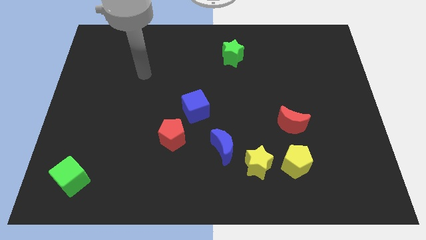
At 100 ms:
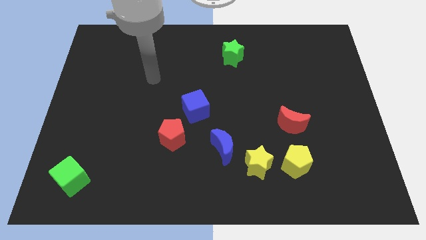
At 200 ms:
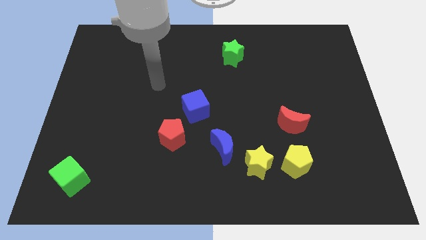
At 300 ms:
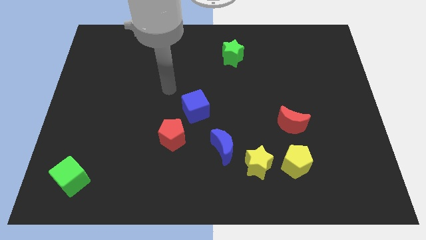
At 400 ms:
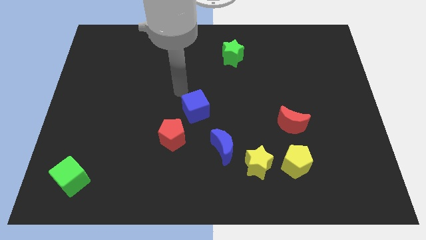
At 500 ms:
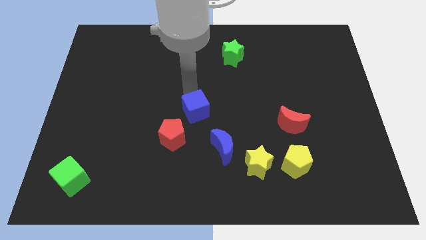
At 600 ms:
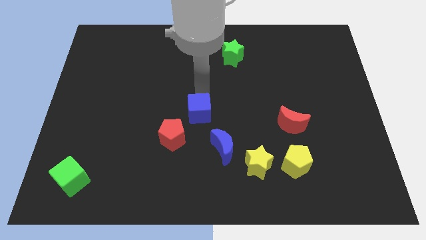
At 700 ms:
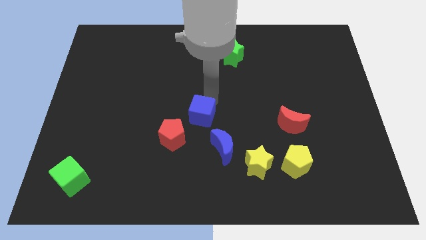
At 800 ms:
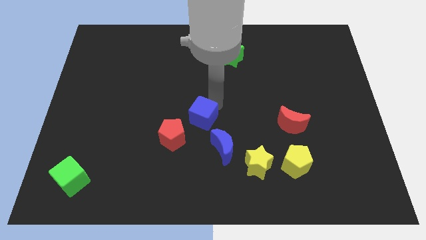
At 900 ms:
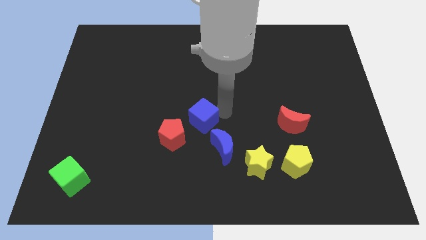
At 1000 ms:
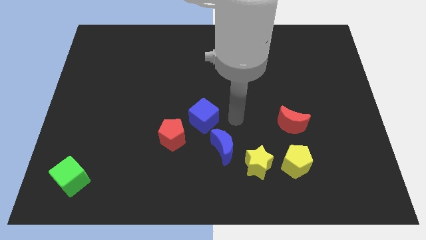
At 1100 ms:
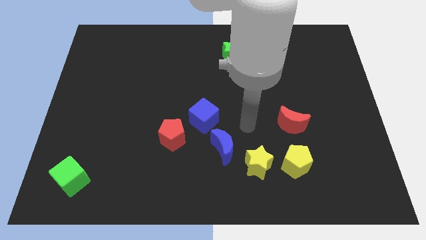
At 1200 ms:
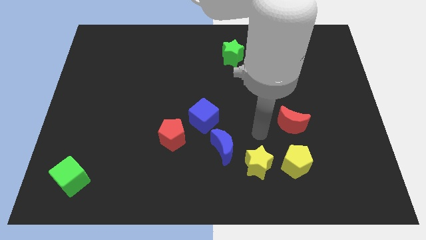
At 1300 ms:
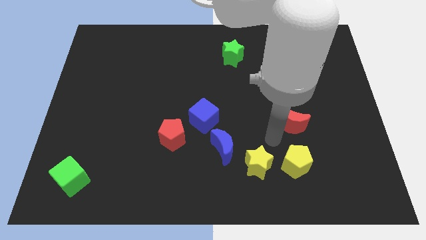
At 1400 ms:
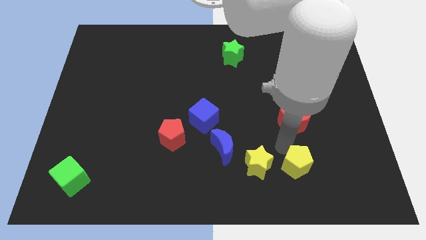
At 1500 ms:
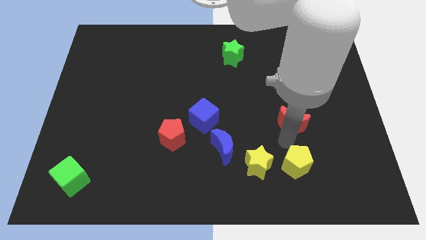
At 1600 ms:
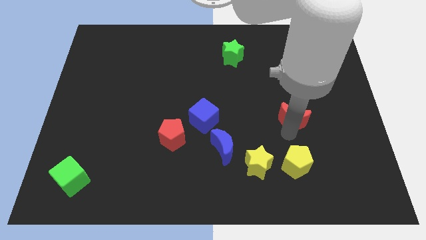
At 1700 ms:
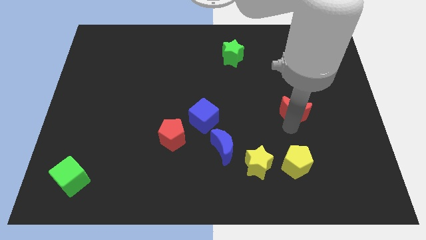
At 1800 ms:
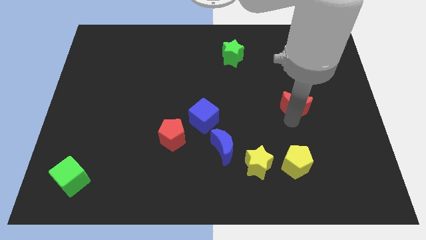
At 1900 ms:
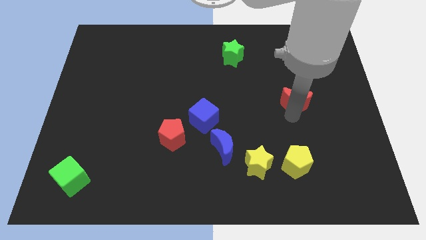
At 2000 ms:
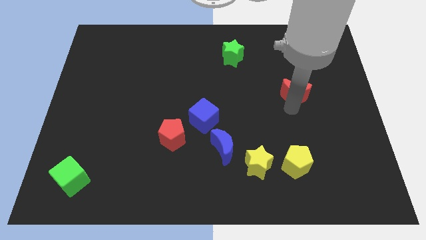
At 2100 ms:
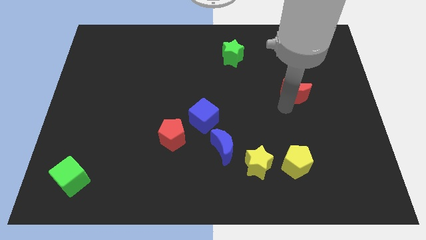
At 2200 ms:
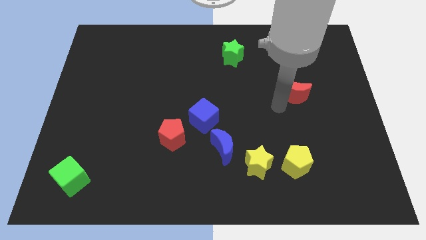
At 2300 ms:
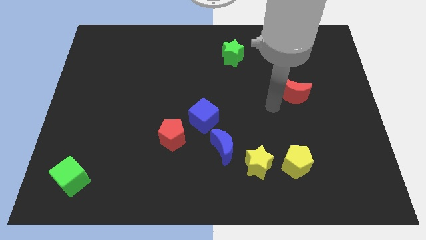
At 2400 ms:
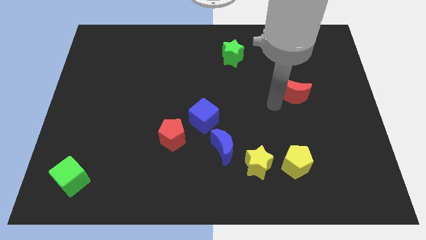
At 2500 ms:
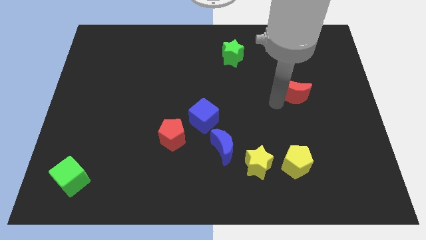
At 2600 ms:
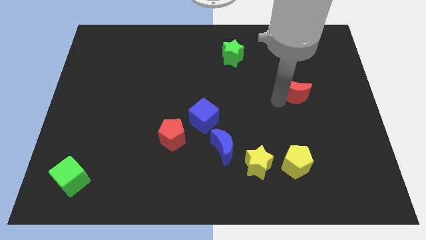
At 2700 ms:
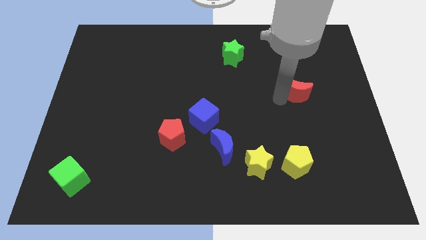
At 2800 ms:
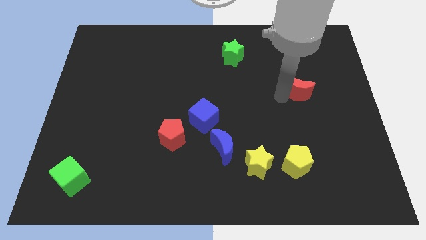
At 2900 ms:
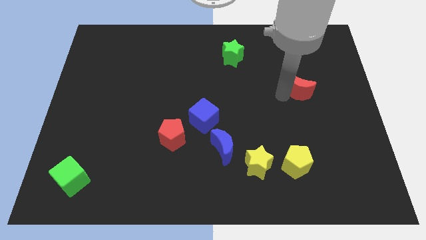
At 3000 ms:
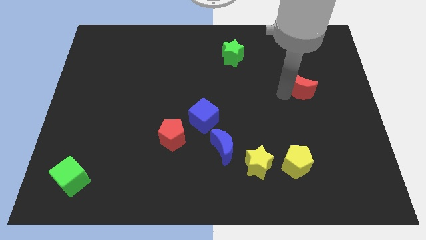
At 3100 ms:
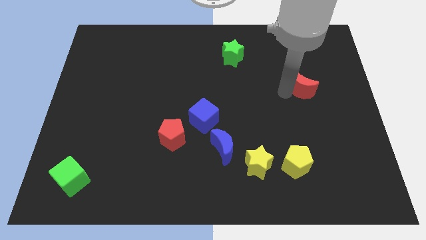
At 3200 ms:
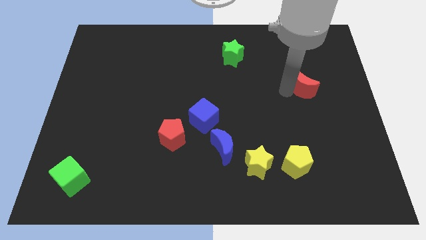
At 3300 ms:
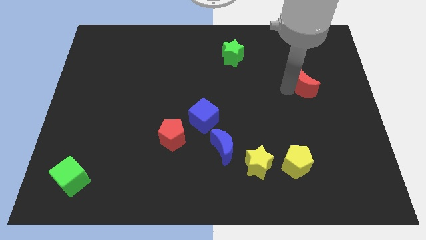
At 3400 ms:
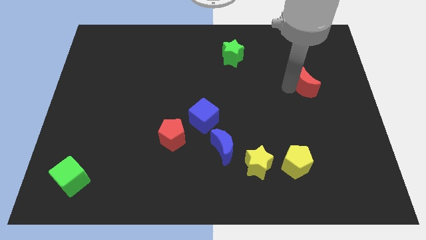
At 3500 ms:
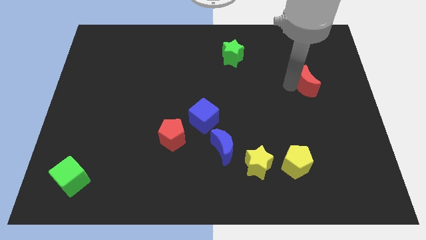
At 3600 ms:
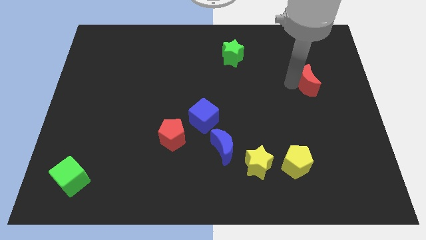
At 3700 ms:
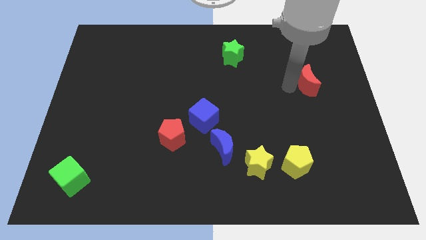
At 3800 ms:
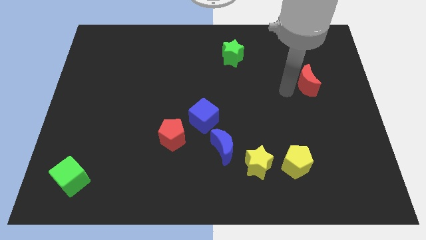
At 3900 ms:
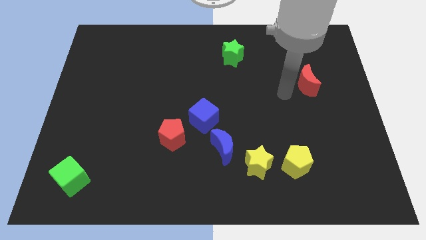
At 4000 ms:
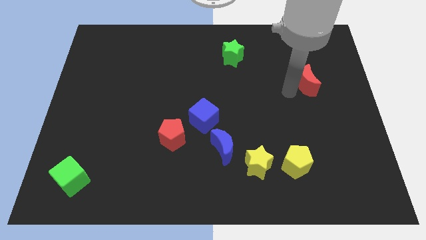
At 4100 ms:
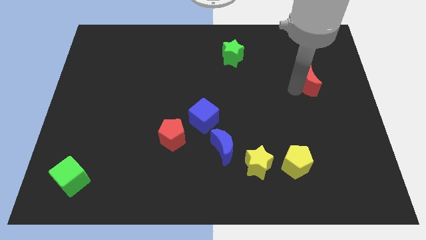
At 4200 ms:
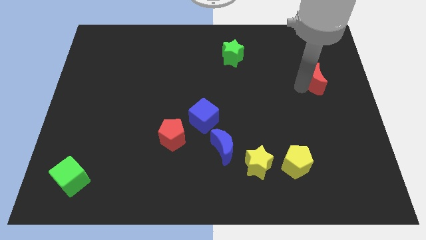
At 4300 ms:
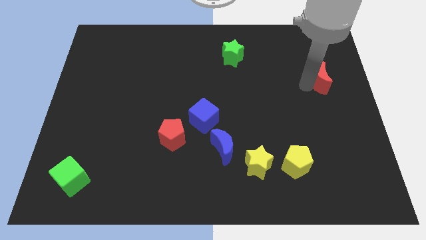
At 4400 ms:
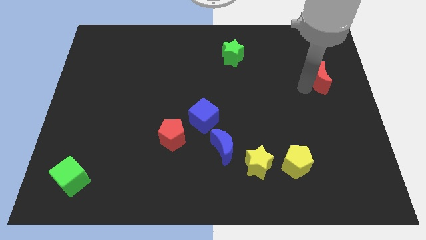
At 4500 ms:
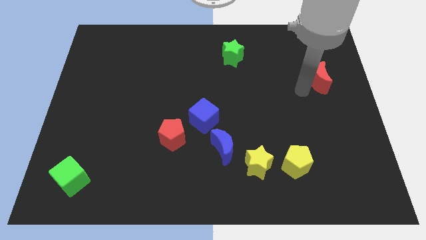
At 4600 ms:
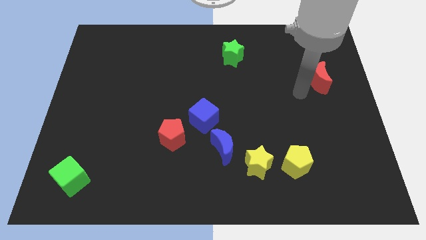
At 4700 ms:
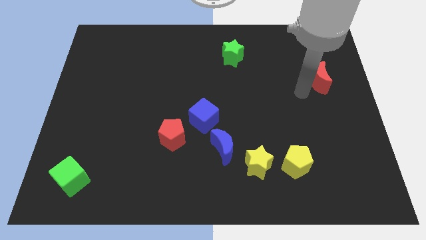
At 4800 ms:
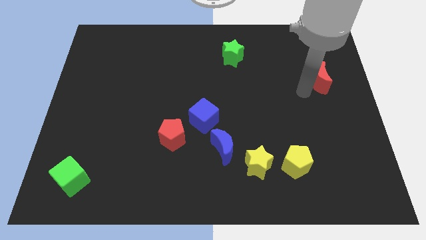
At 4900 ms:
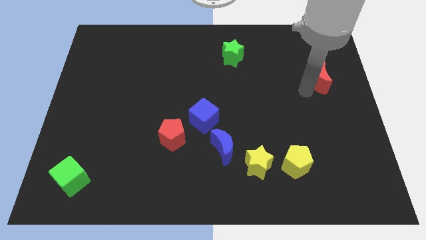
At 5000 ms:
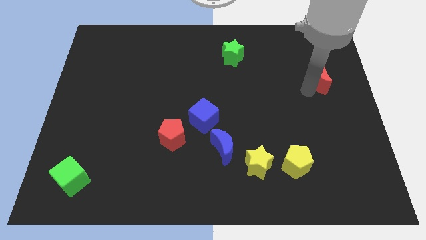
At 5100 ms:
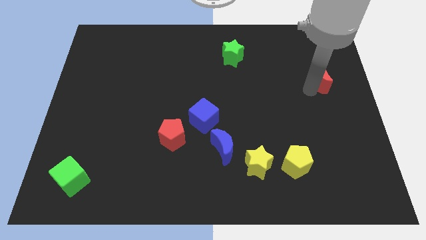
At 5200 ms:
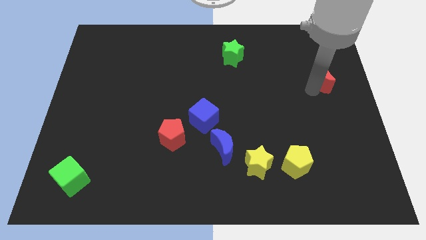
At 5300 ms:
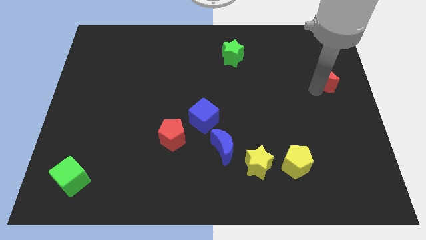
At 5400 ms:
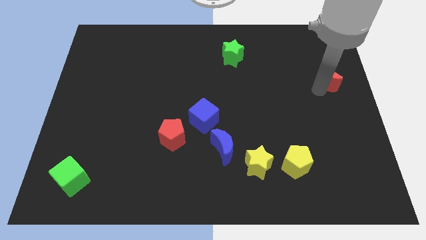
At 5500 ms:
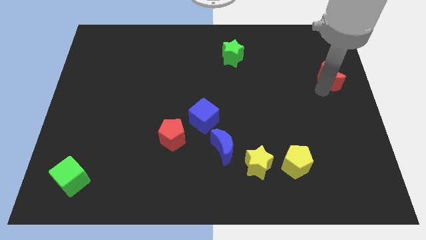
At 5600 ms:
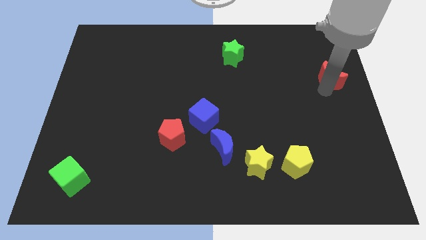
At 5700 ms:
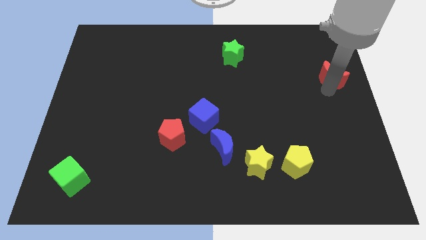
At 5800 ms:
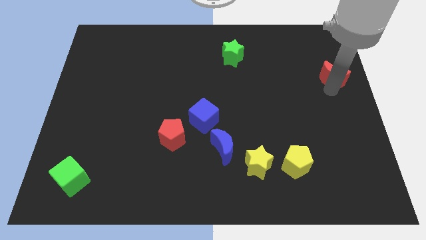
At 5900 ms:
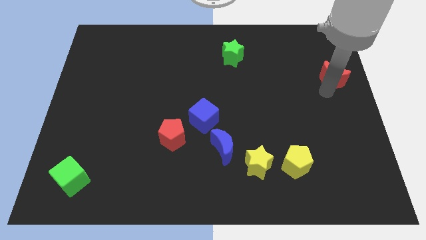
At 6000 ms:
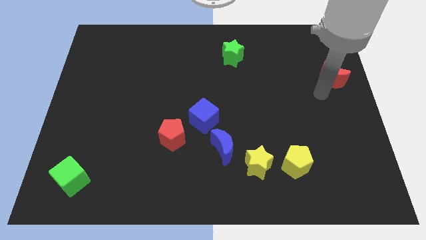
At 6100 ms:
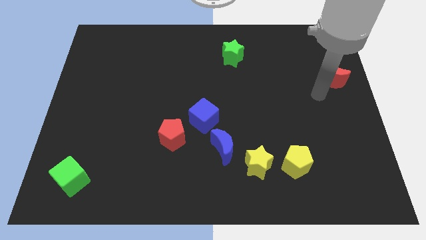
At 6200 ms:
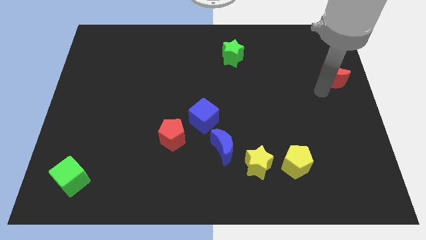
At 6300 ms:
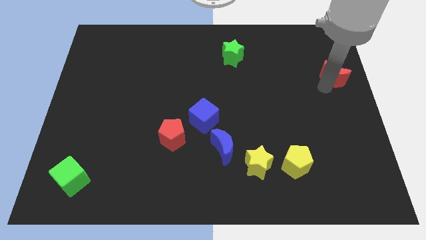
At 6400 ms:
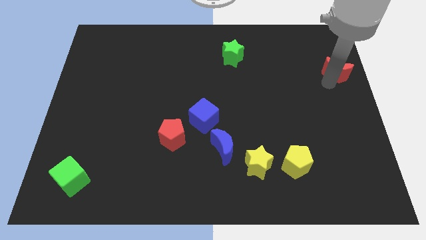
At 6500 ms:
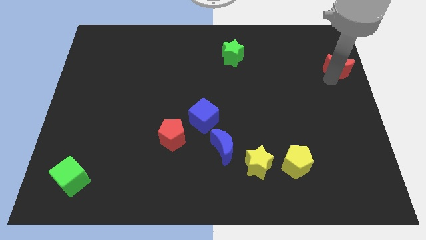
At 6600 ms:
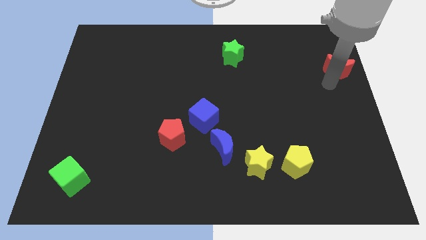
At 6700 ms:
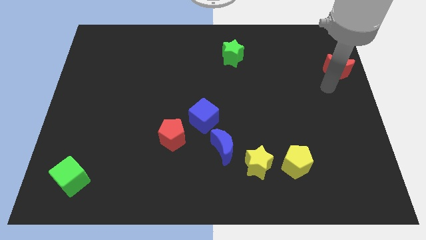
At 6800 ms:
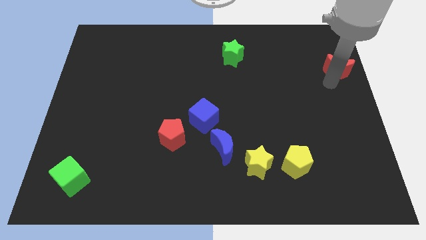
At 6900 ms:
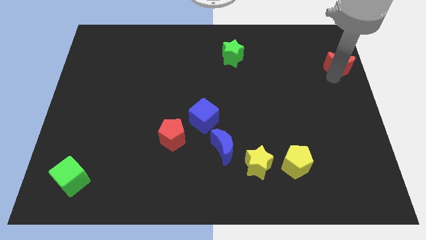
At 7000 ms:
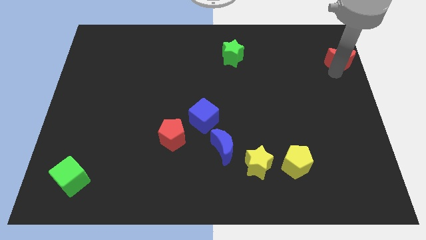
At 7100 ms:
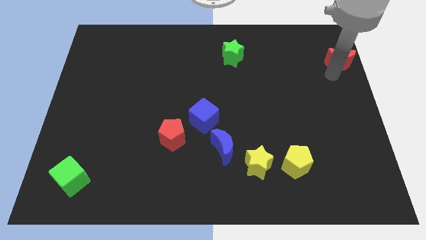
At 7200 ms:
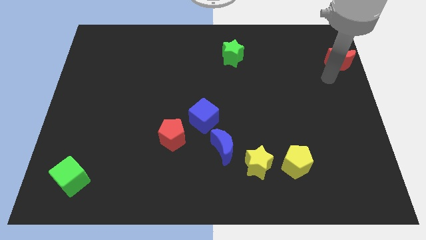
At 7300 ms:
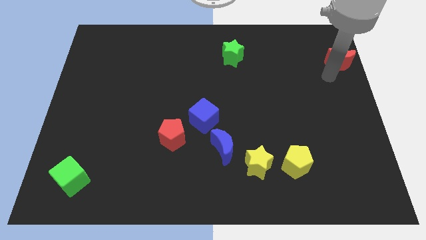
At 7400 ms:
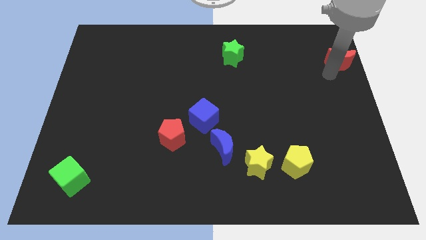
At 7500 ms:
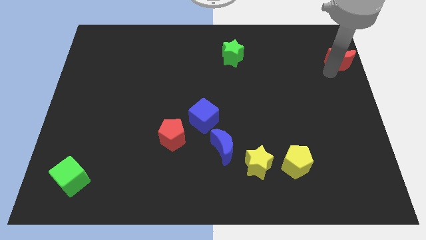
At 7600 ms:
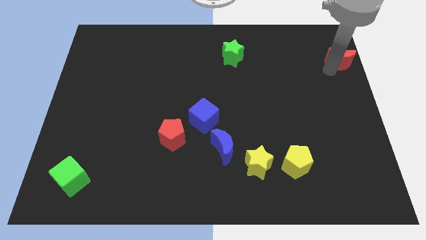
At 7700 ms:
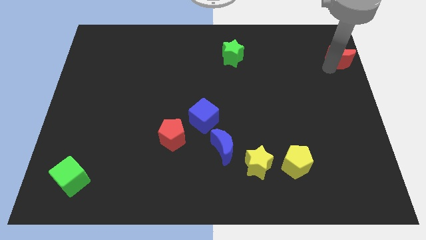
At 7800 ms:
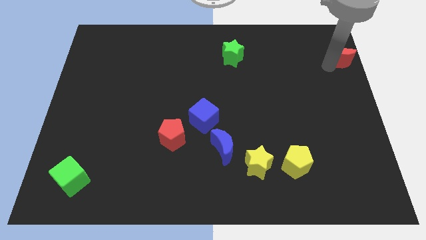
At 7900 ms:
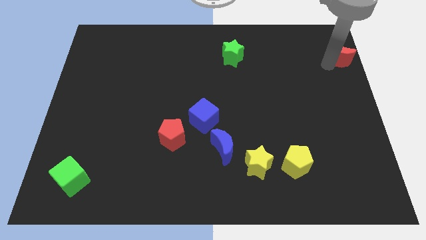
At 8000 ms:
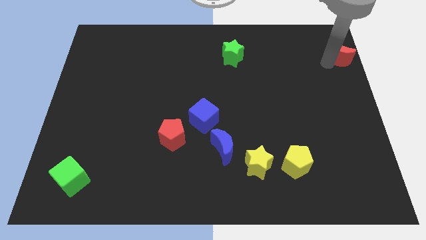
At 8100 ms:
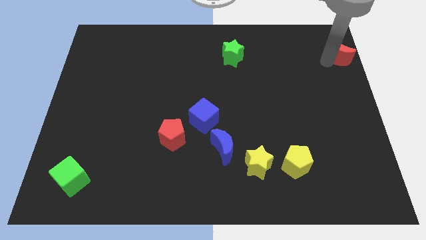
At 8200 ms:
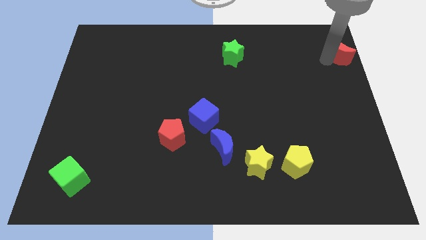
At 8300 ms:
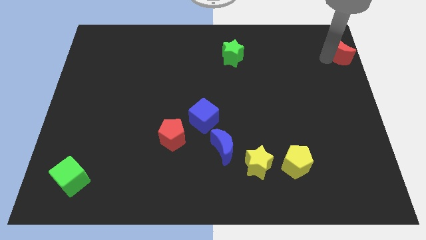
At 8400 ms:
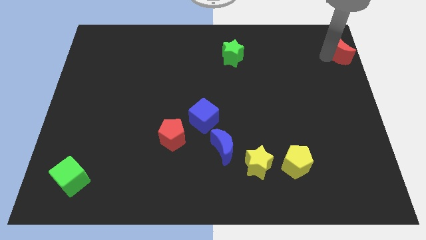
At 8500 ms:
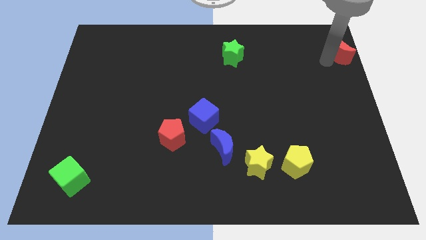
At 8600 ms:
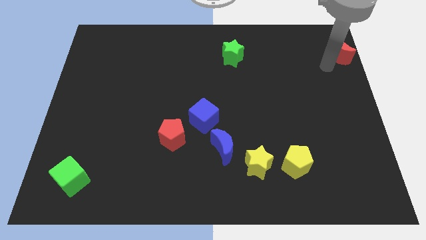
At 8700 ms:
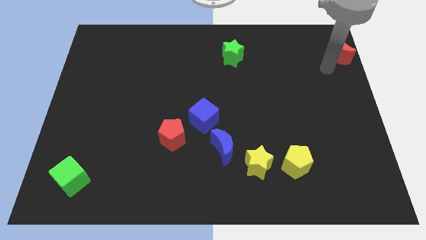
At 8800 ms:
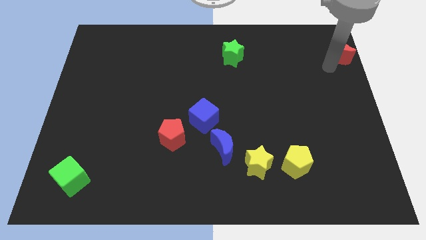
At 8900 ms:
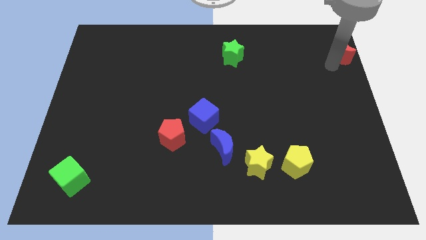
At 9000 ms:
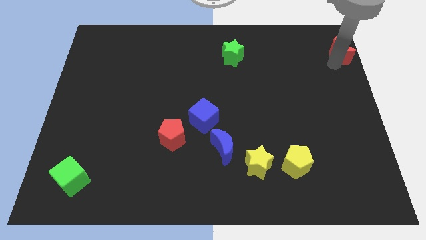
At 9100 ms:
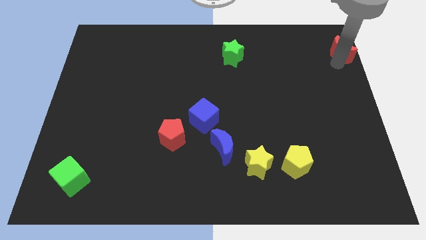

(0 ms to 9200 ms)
push the red moon to the top right
